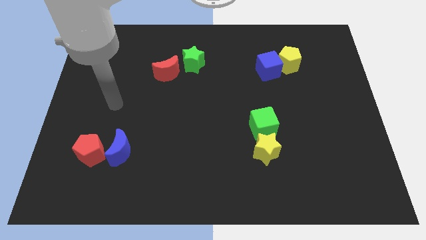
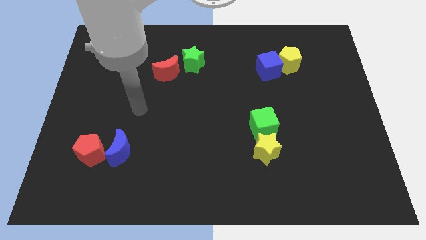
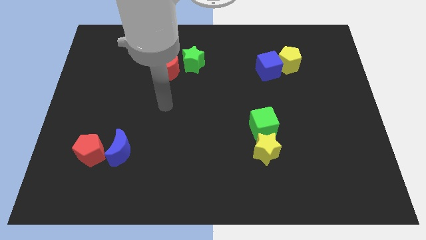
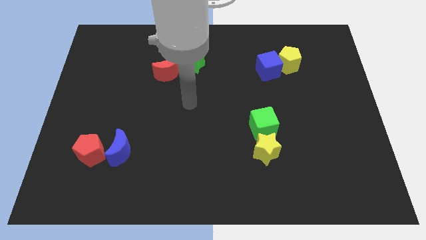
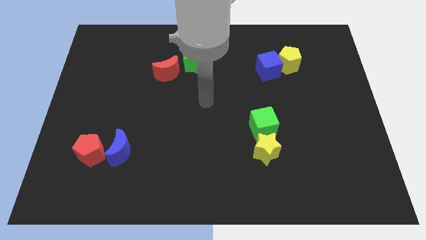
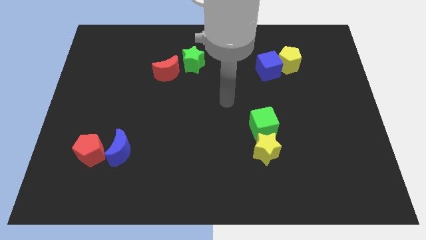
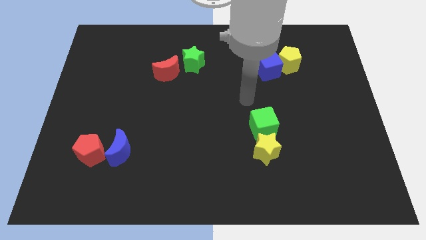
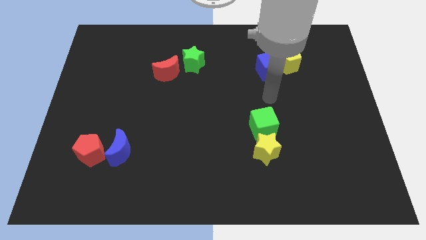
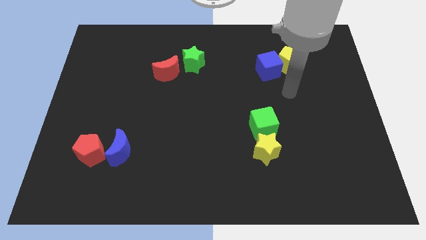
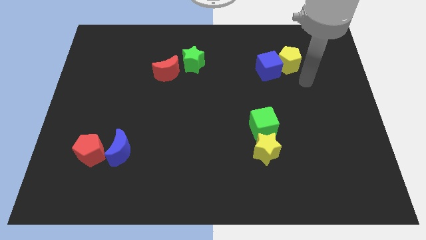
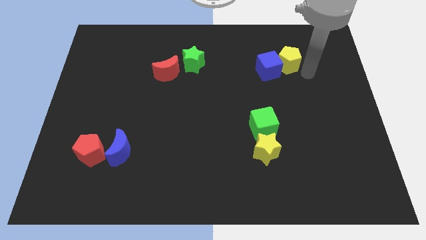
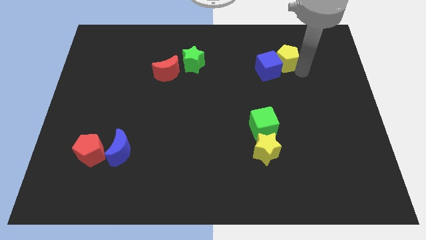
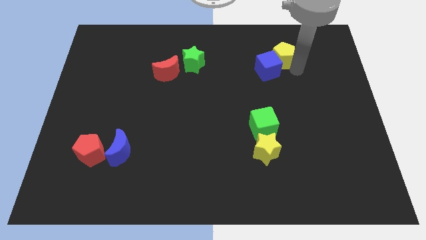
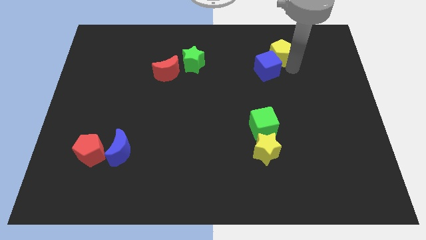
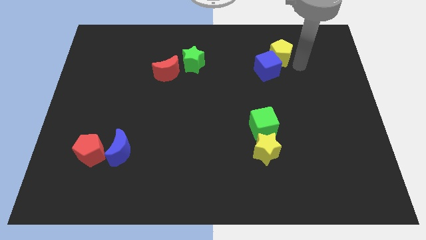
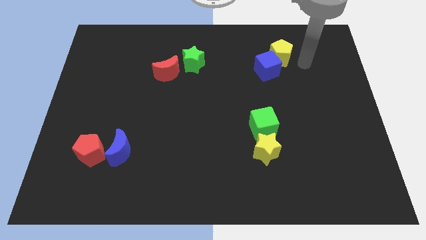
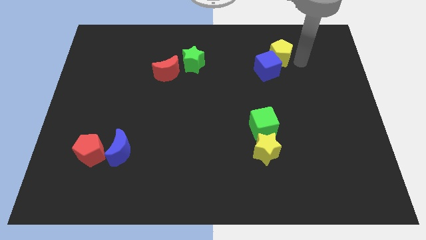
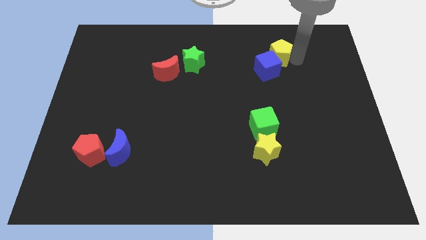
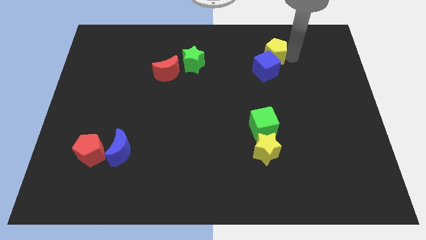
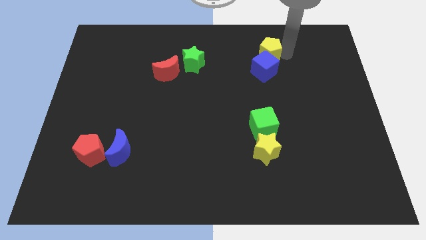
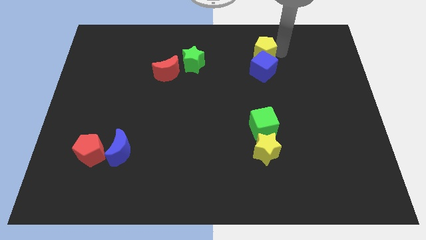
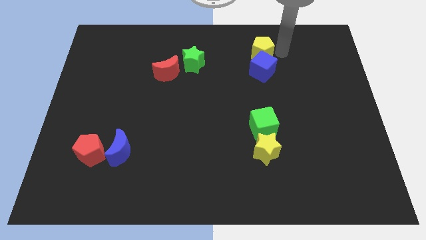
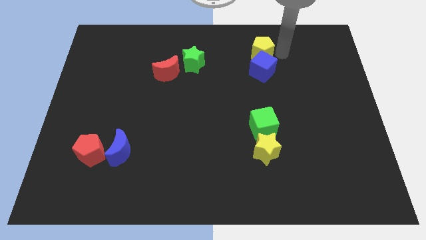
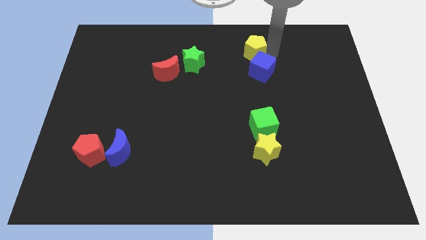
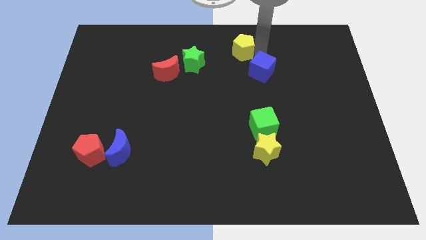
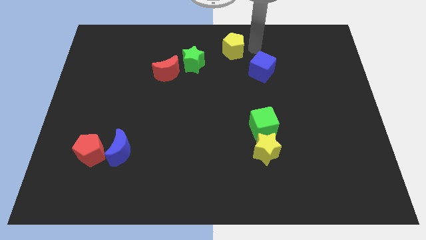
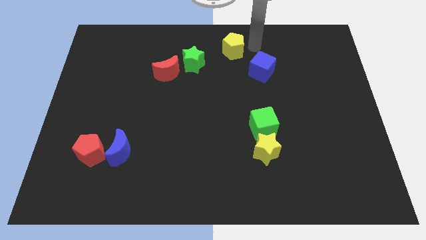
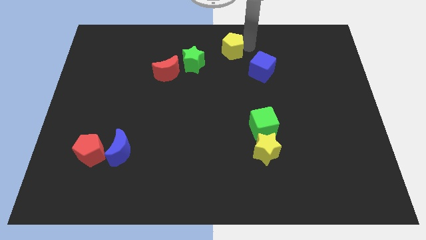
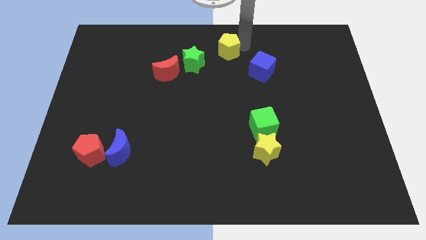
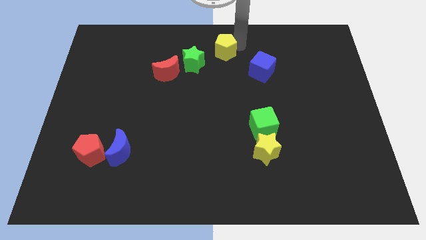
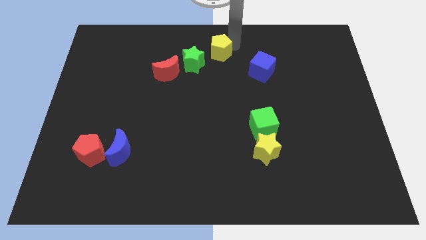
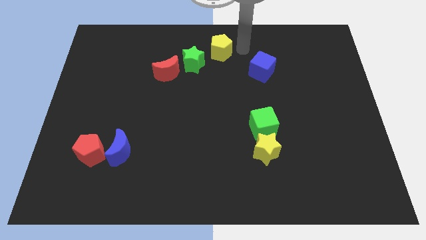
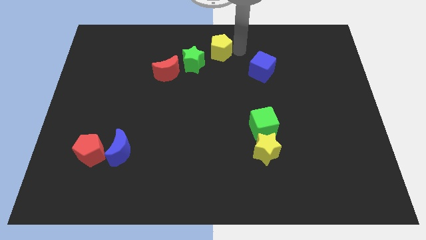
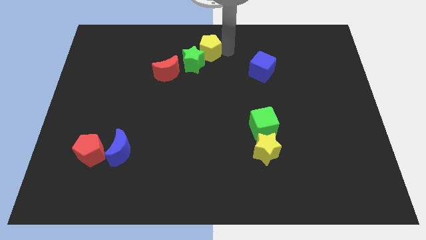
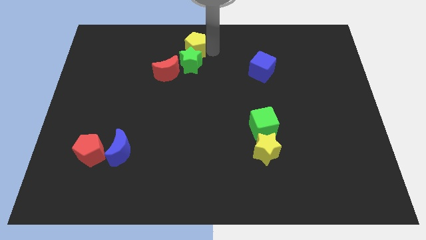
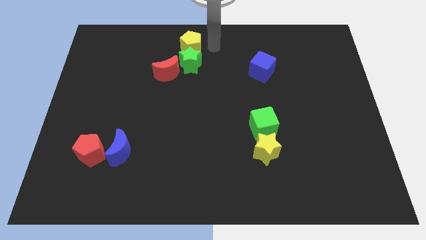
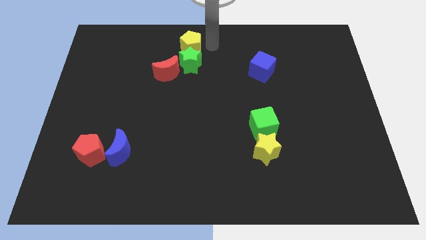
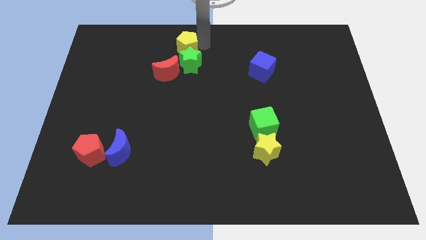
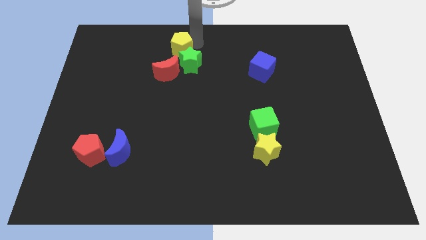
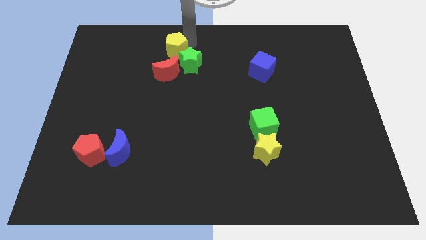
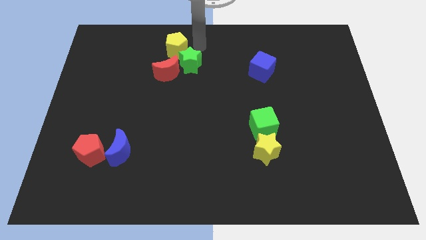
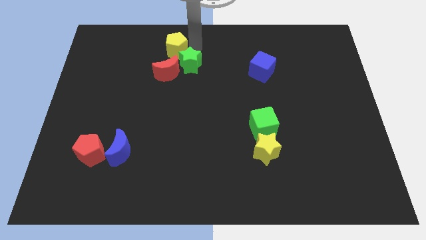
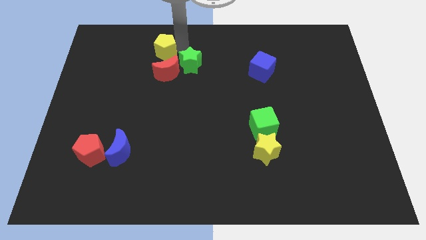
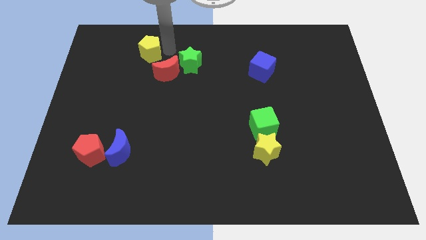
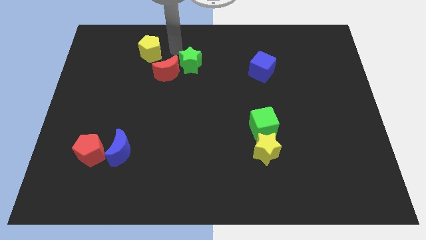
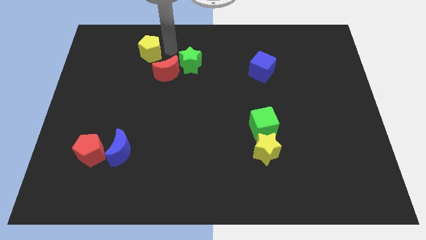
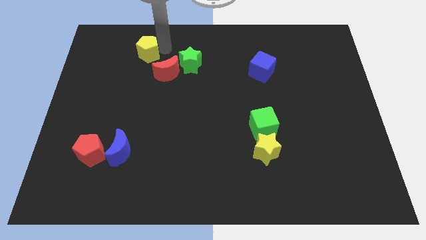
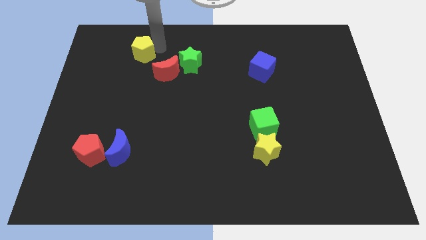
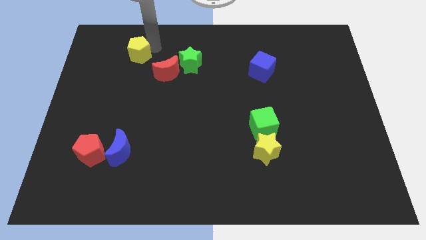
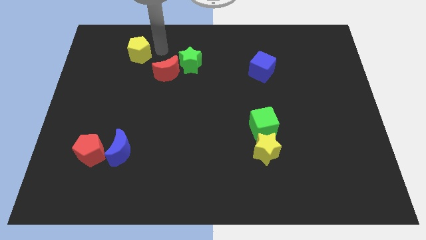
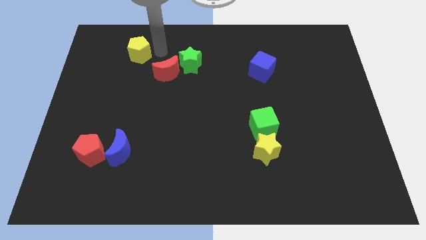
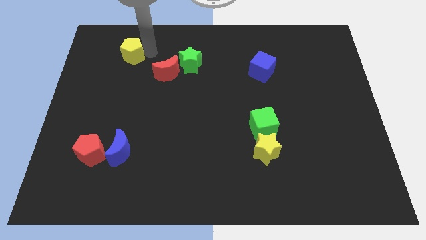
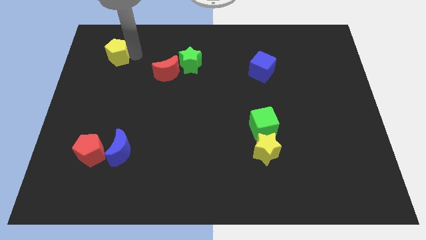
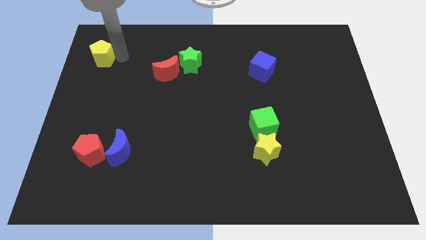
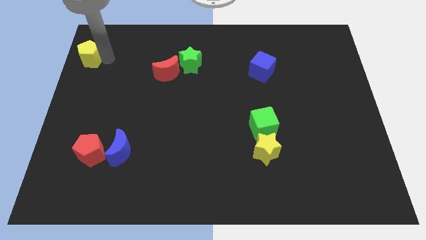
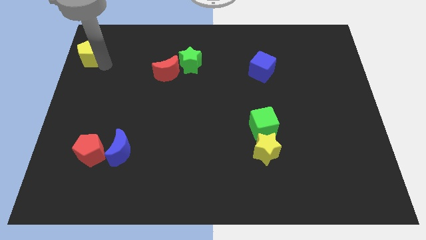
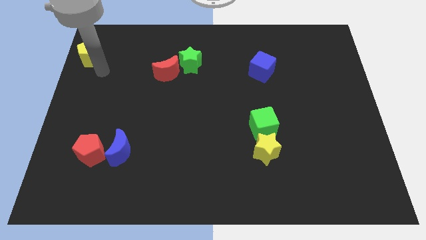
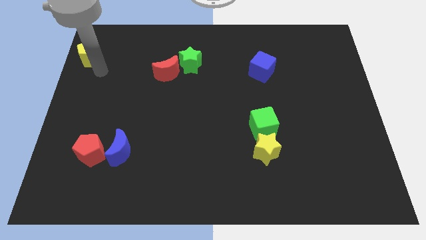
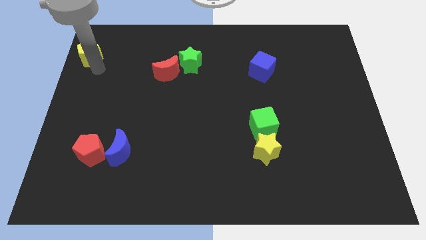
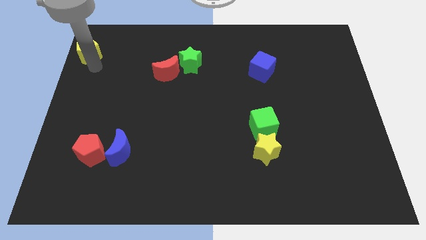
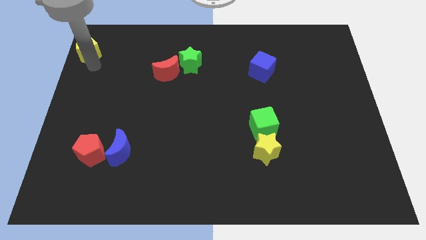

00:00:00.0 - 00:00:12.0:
slide the yellow pentagon to the top left corner
